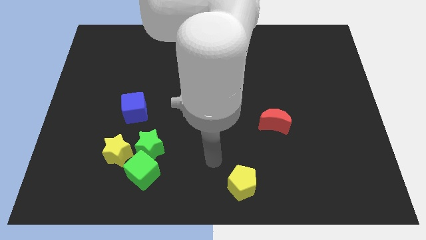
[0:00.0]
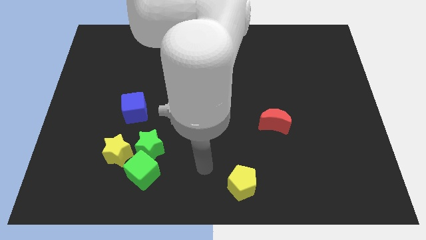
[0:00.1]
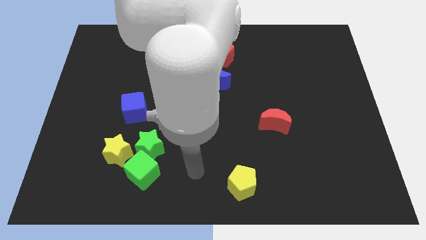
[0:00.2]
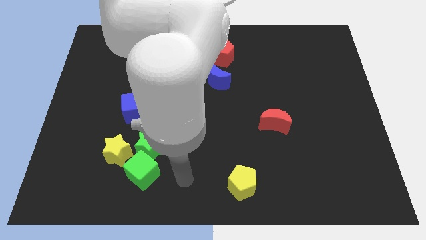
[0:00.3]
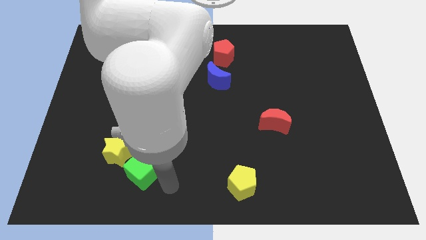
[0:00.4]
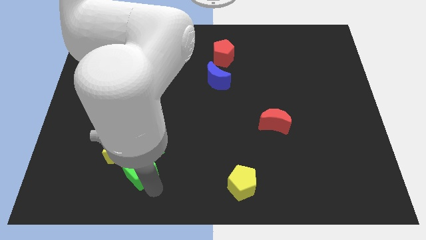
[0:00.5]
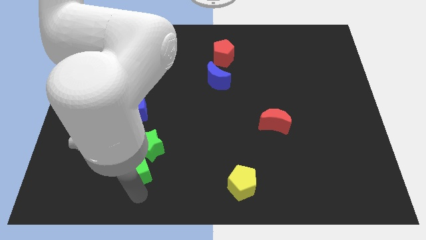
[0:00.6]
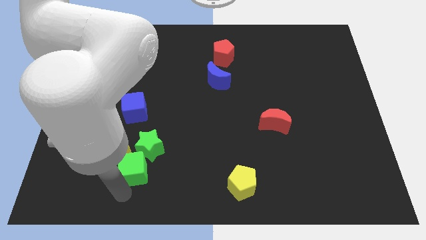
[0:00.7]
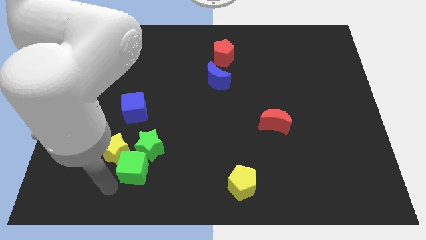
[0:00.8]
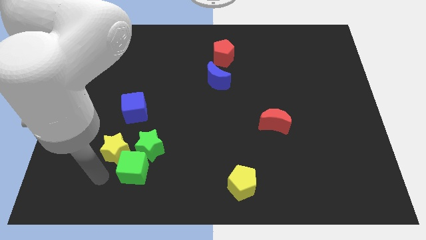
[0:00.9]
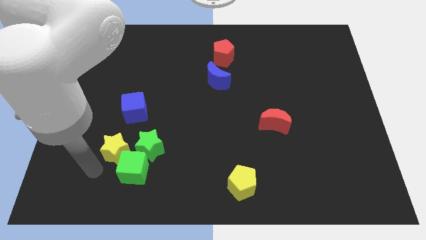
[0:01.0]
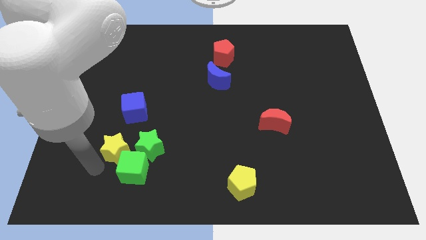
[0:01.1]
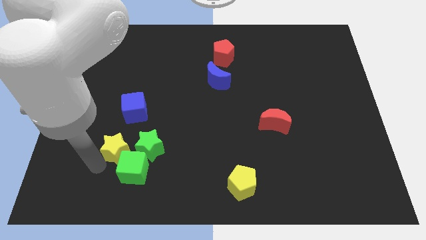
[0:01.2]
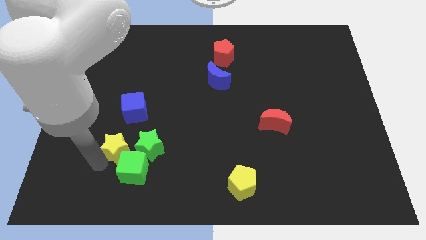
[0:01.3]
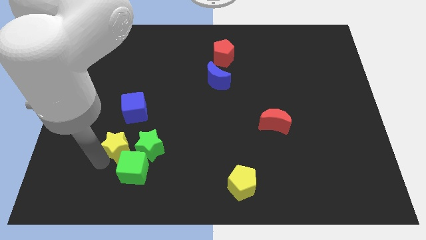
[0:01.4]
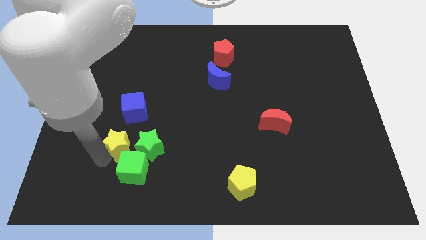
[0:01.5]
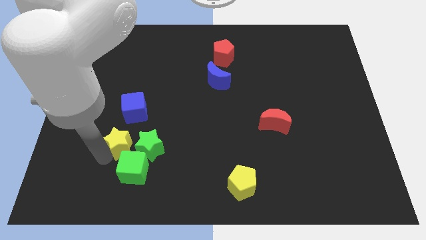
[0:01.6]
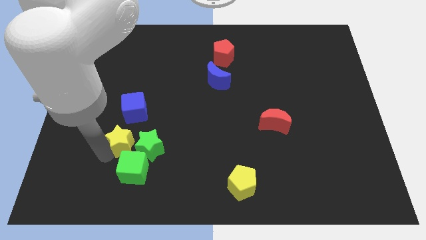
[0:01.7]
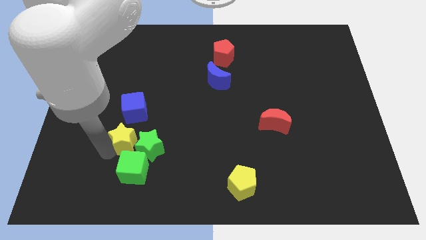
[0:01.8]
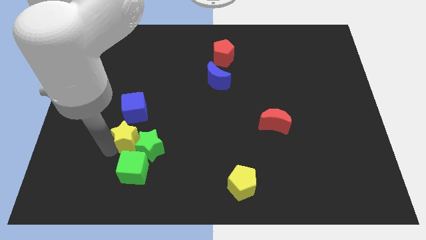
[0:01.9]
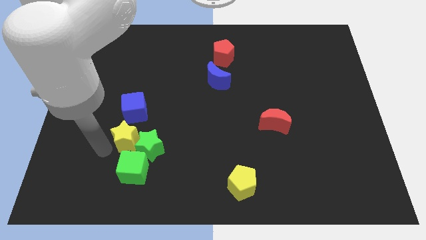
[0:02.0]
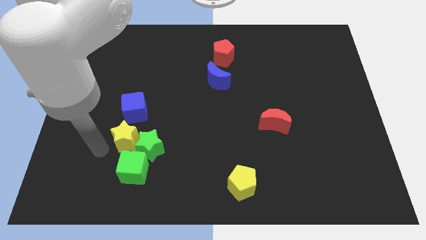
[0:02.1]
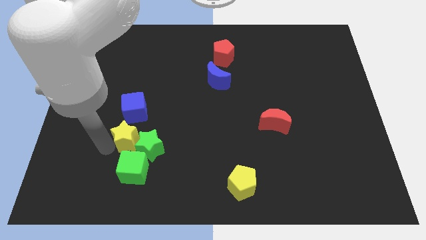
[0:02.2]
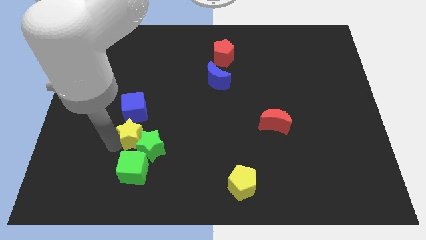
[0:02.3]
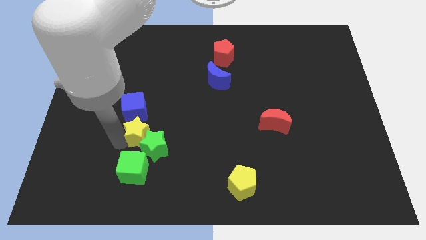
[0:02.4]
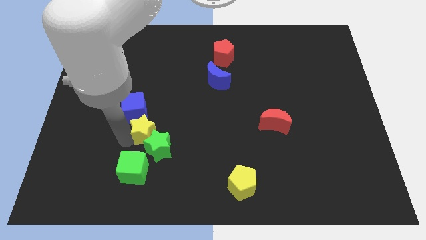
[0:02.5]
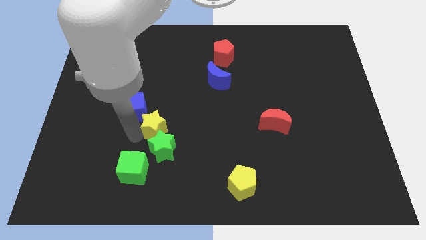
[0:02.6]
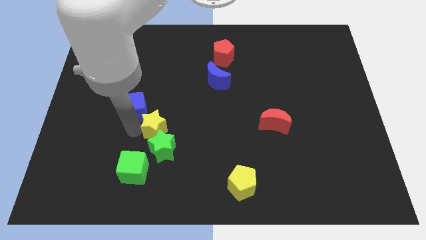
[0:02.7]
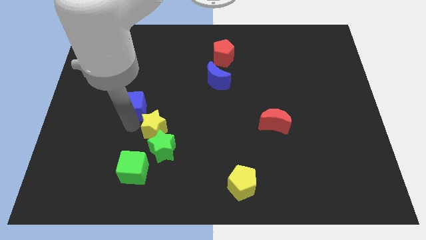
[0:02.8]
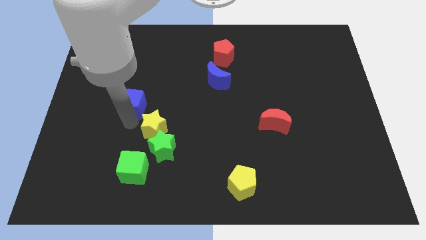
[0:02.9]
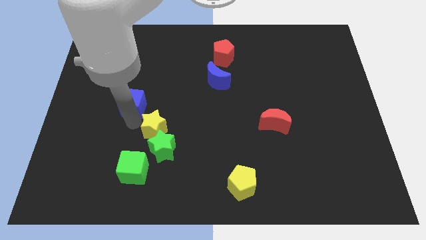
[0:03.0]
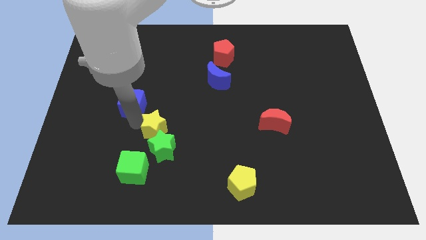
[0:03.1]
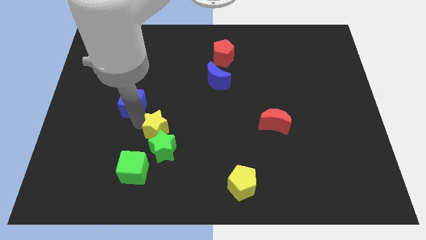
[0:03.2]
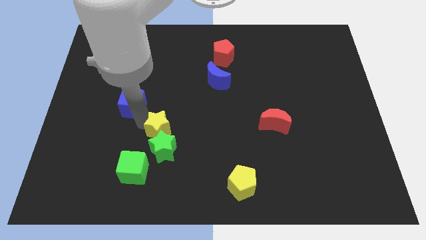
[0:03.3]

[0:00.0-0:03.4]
slide the yellow star right somewhat

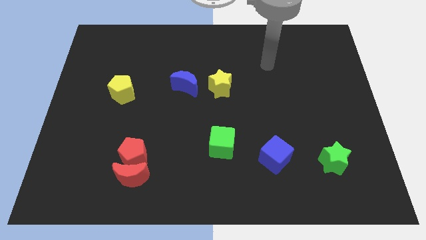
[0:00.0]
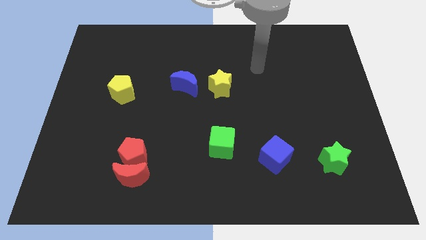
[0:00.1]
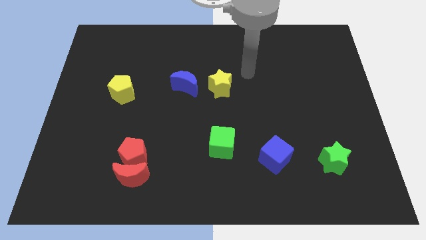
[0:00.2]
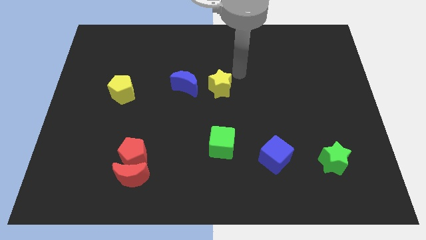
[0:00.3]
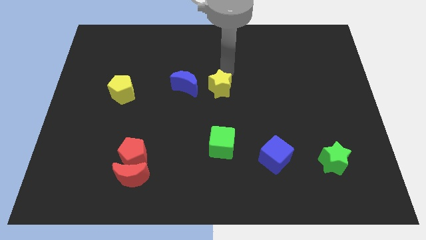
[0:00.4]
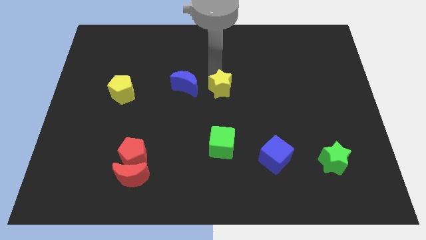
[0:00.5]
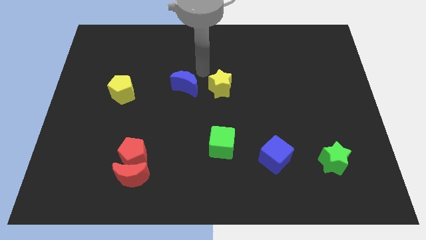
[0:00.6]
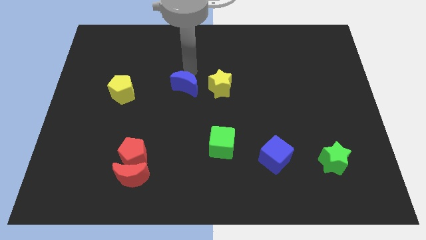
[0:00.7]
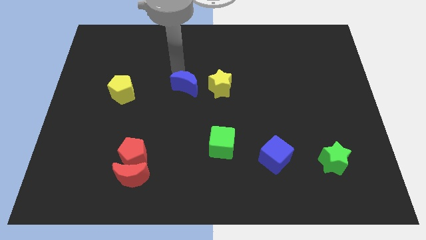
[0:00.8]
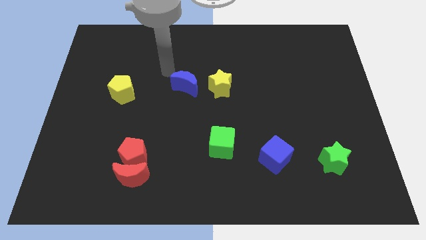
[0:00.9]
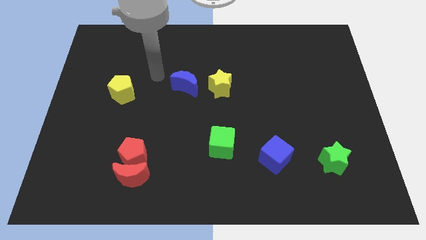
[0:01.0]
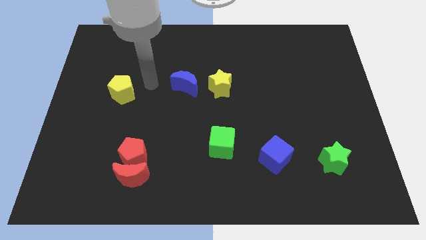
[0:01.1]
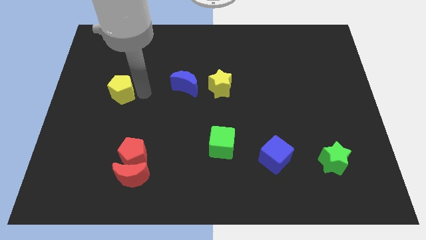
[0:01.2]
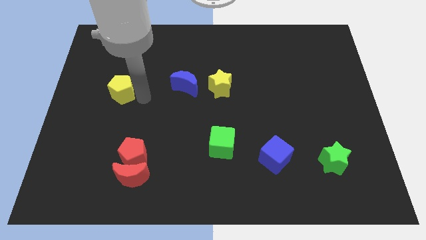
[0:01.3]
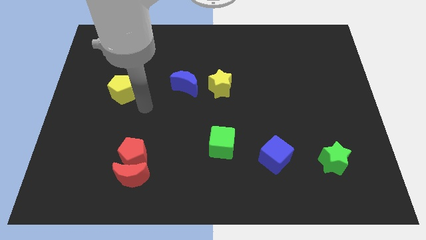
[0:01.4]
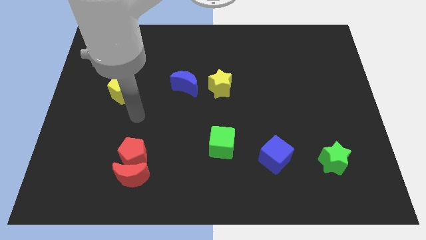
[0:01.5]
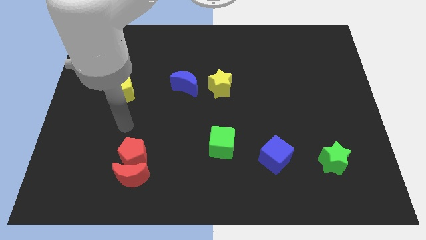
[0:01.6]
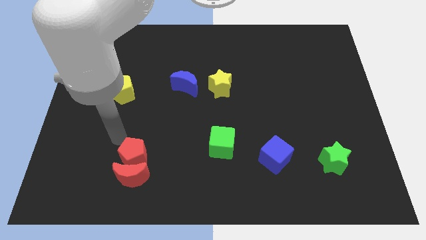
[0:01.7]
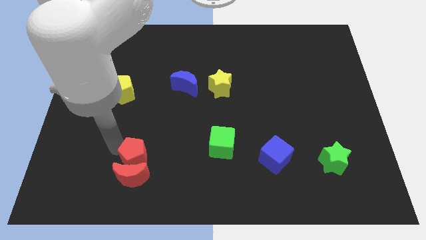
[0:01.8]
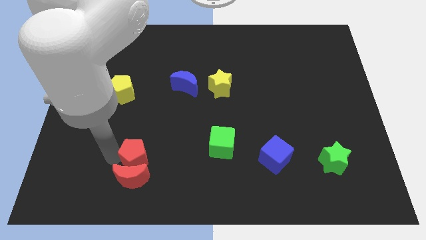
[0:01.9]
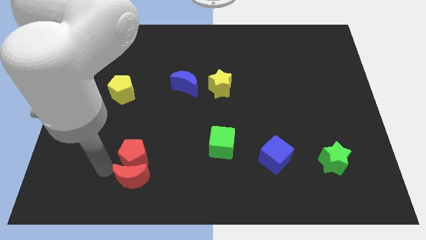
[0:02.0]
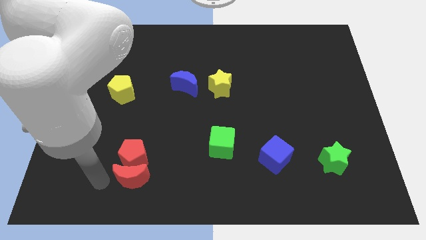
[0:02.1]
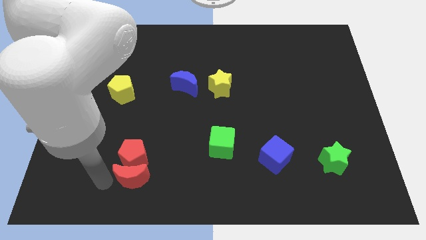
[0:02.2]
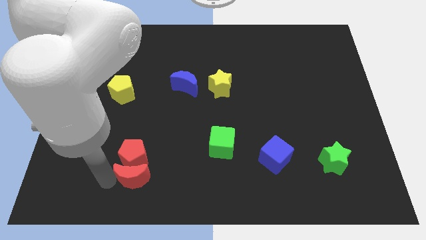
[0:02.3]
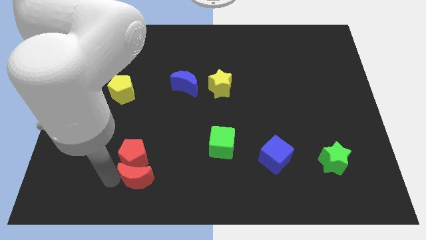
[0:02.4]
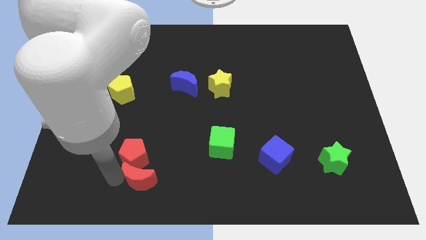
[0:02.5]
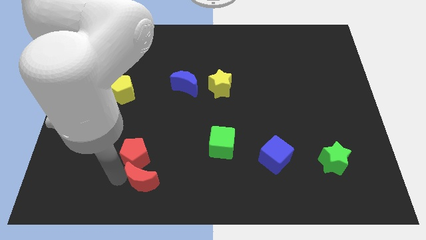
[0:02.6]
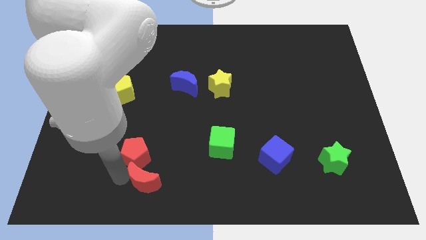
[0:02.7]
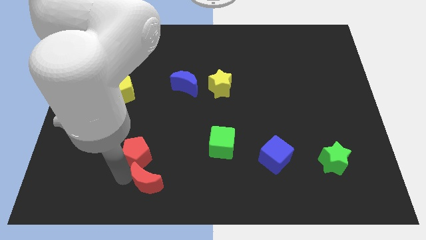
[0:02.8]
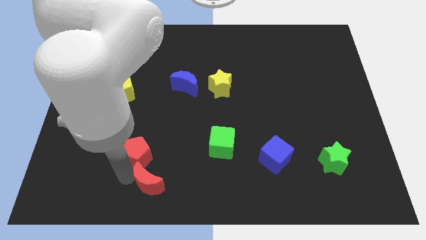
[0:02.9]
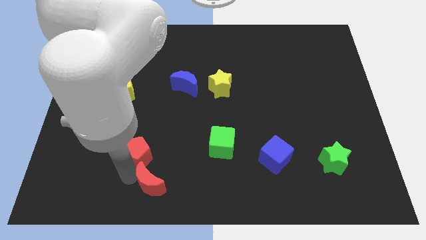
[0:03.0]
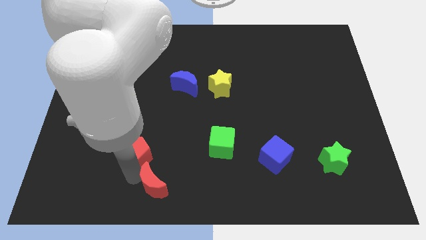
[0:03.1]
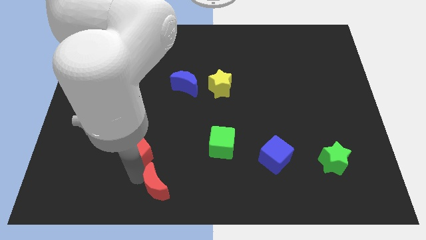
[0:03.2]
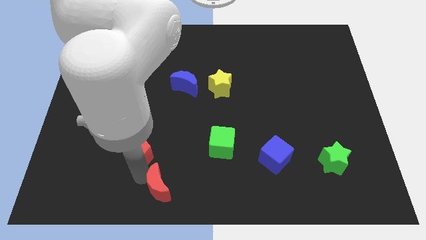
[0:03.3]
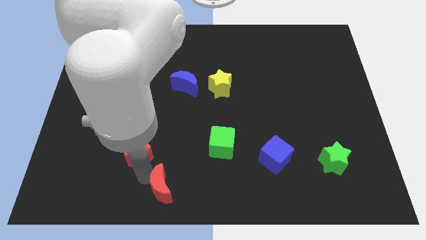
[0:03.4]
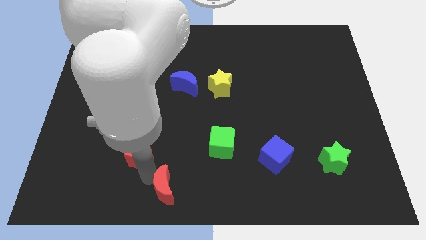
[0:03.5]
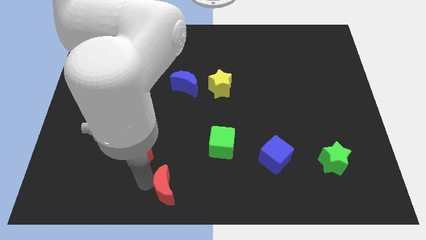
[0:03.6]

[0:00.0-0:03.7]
slide the red moon to the right a little

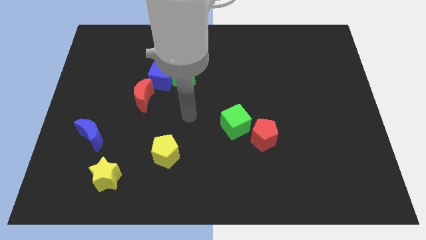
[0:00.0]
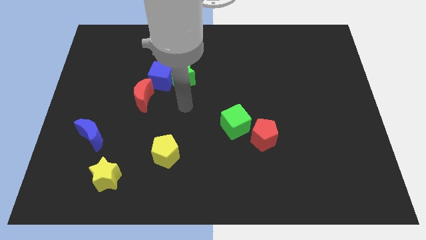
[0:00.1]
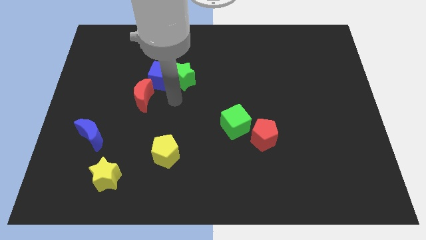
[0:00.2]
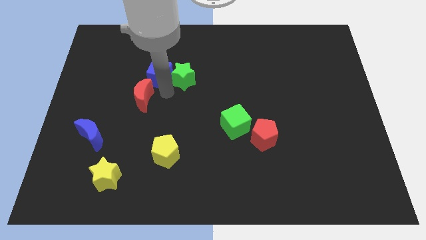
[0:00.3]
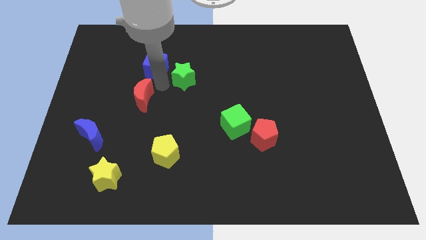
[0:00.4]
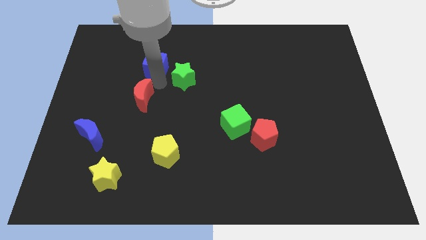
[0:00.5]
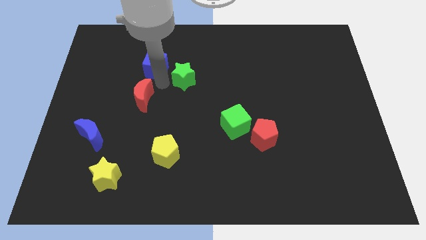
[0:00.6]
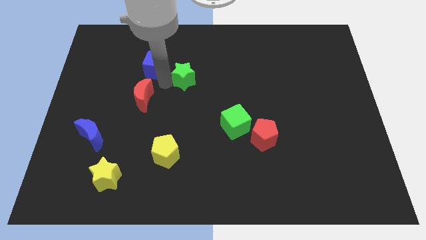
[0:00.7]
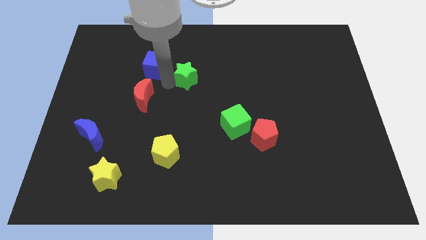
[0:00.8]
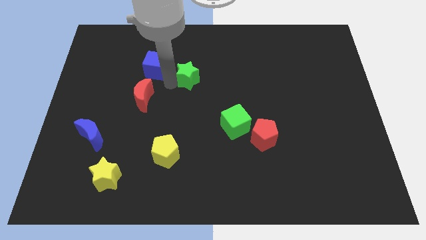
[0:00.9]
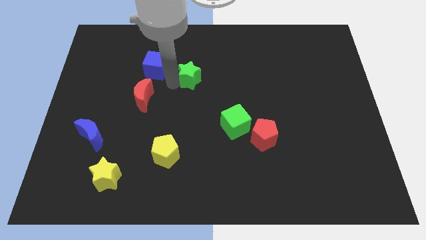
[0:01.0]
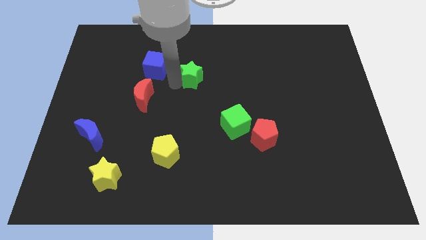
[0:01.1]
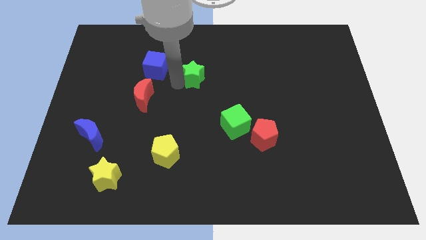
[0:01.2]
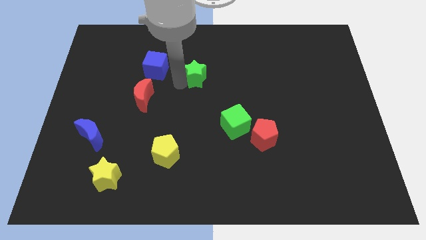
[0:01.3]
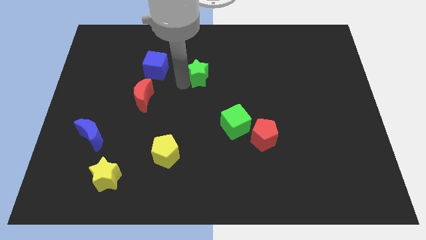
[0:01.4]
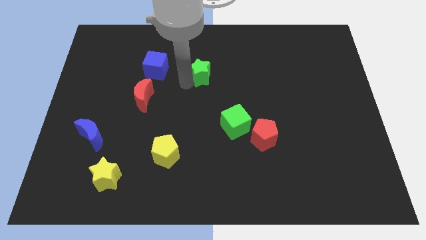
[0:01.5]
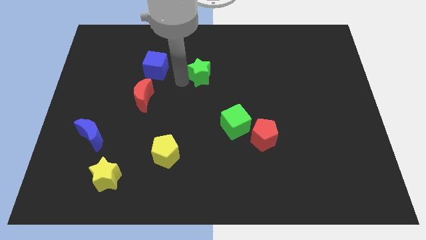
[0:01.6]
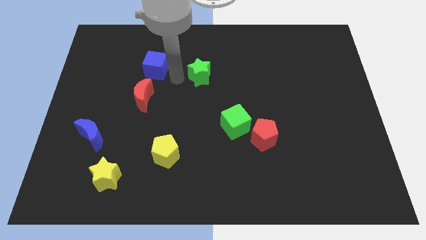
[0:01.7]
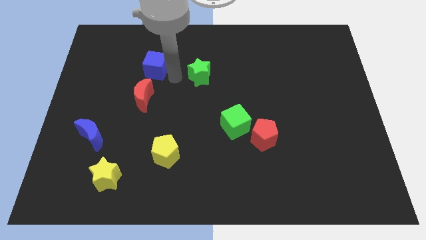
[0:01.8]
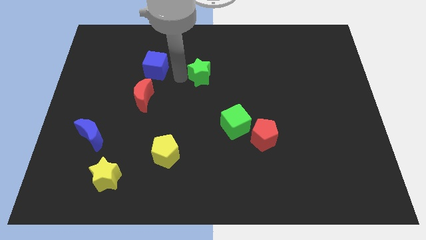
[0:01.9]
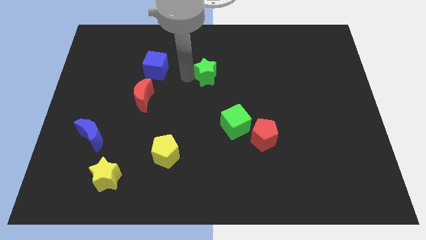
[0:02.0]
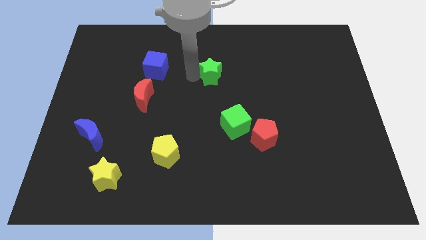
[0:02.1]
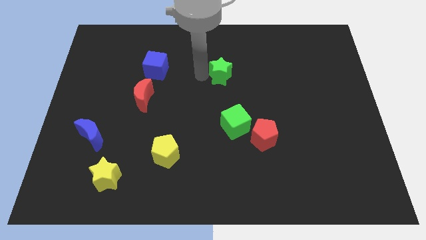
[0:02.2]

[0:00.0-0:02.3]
slightly push the green star right
